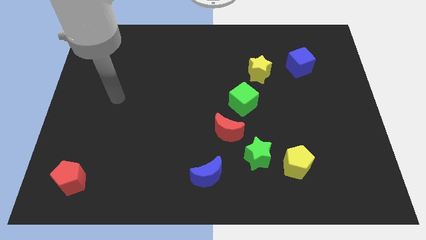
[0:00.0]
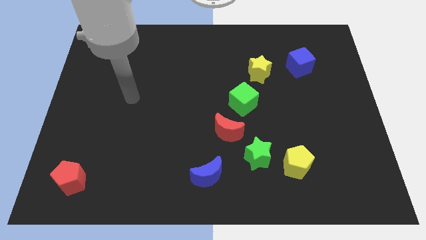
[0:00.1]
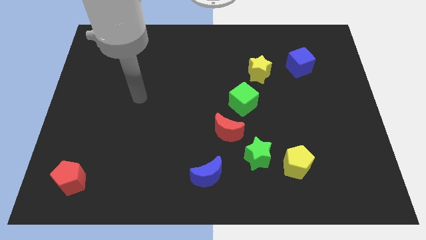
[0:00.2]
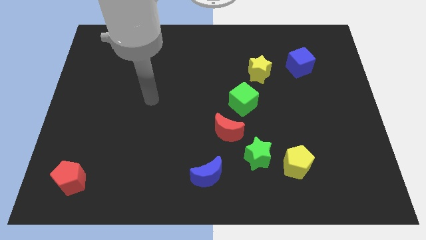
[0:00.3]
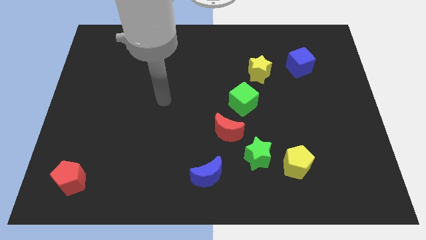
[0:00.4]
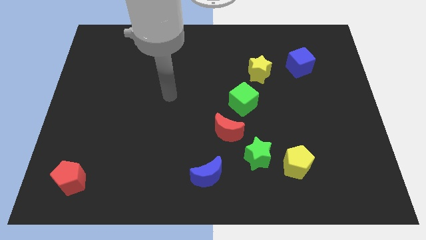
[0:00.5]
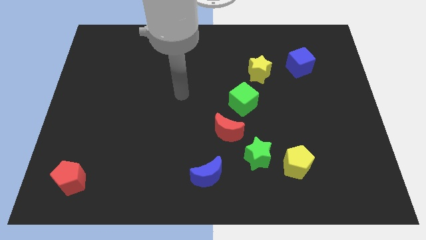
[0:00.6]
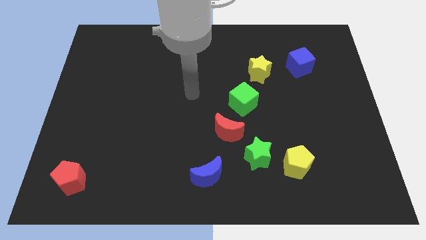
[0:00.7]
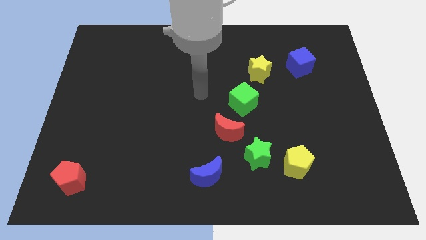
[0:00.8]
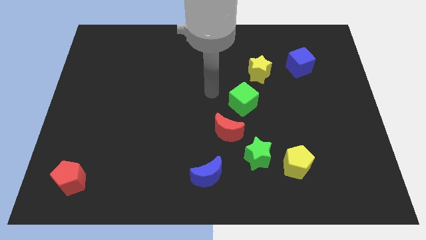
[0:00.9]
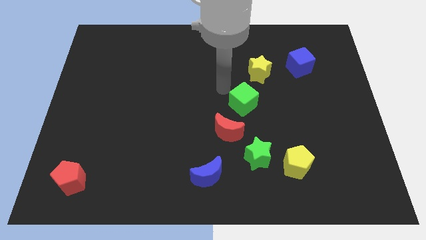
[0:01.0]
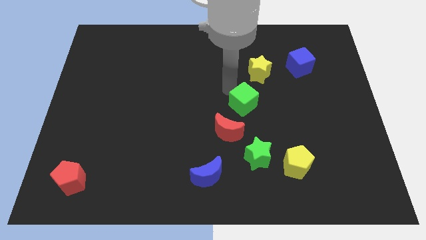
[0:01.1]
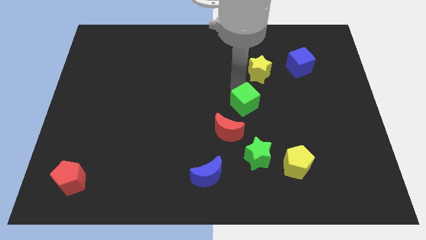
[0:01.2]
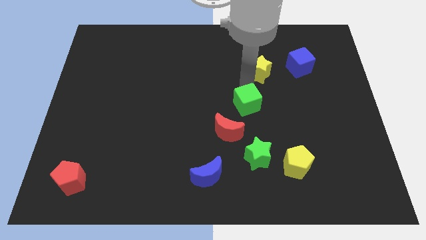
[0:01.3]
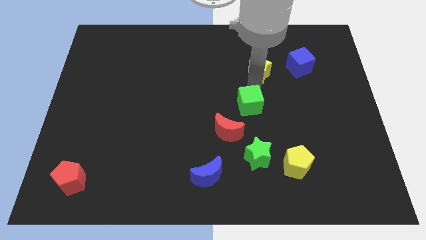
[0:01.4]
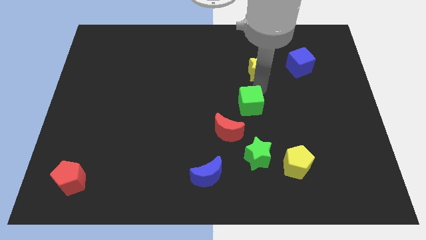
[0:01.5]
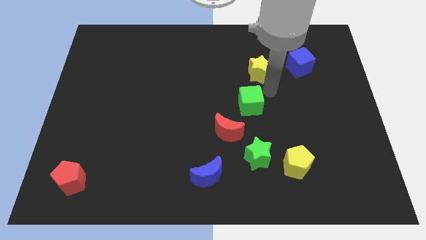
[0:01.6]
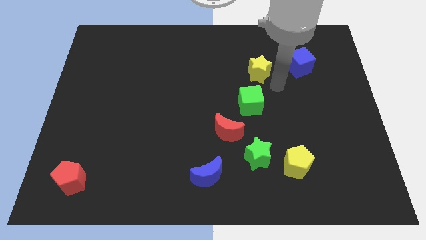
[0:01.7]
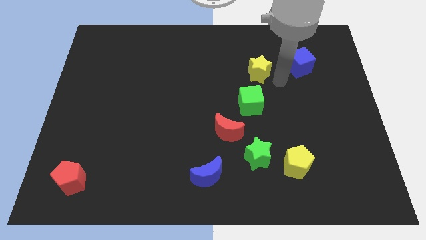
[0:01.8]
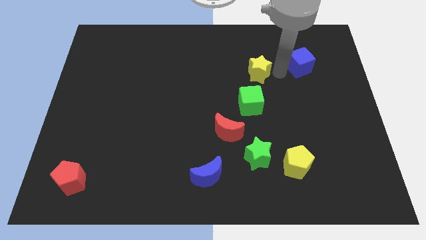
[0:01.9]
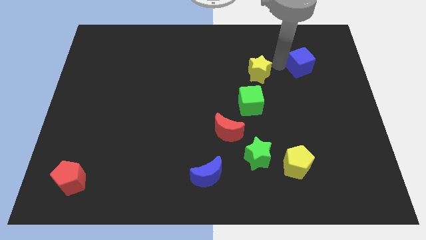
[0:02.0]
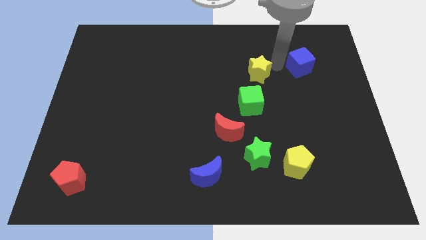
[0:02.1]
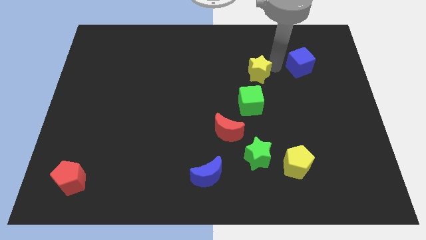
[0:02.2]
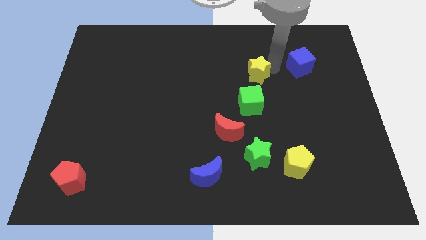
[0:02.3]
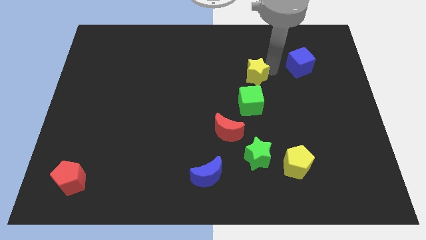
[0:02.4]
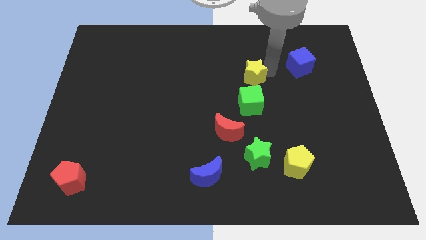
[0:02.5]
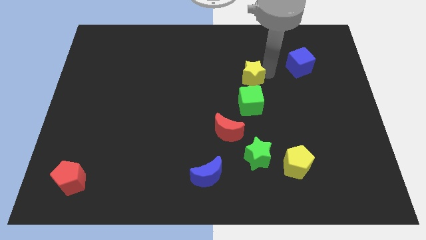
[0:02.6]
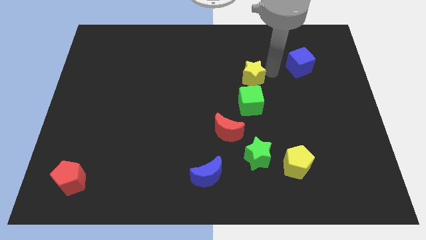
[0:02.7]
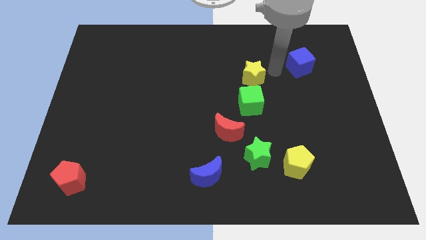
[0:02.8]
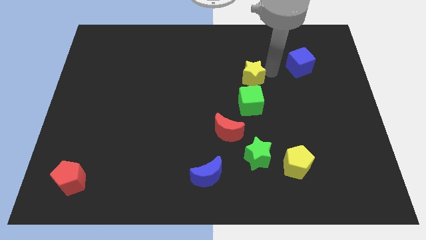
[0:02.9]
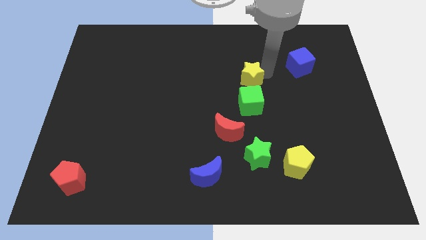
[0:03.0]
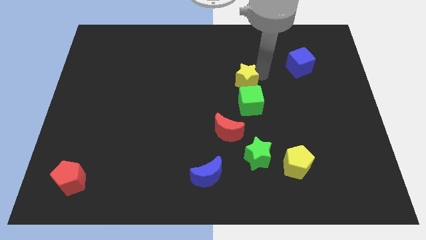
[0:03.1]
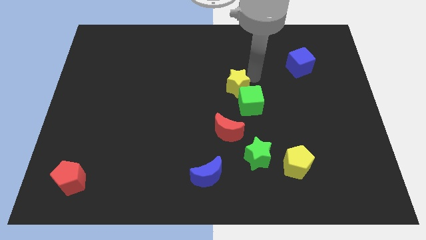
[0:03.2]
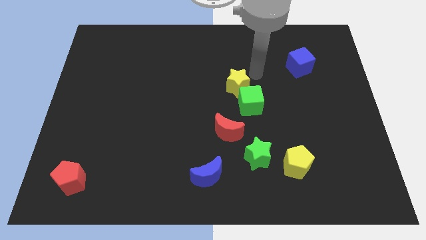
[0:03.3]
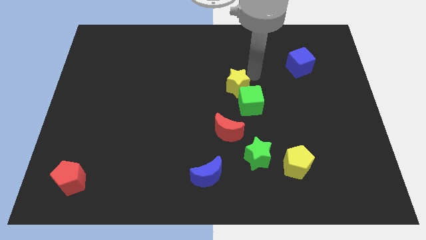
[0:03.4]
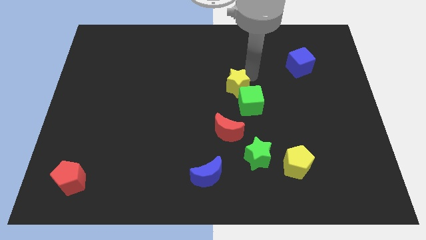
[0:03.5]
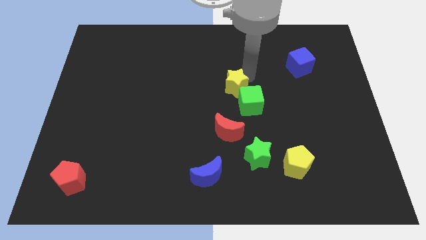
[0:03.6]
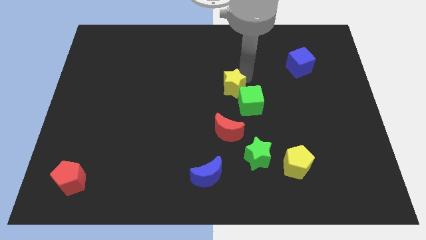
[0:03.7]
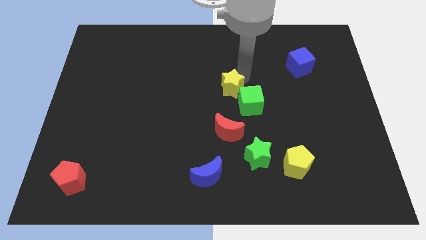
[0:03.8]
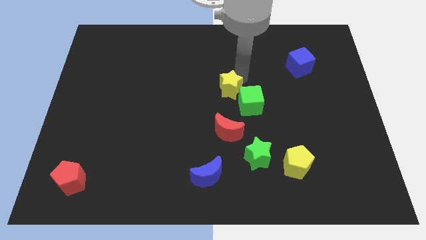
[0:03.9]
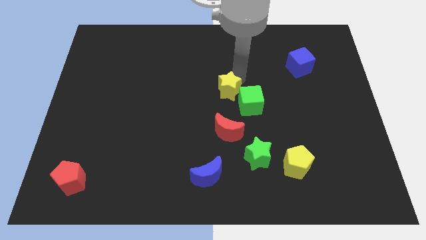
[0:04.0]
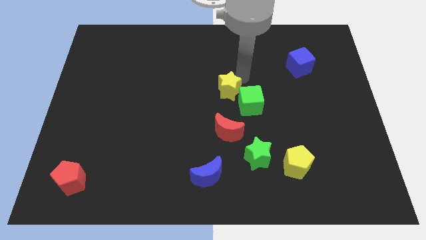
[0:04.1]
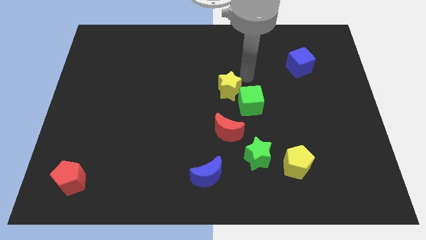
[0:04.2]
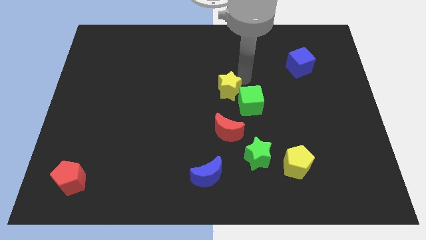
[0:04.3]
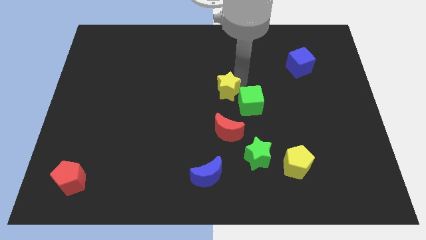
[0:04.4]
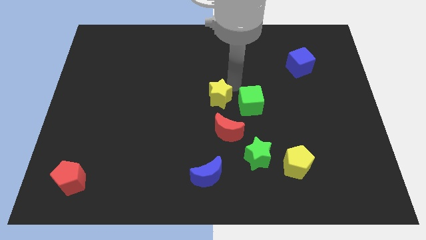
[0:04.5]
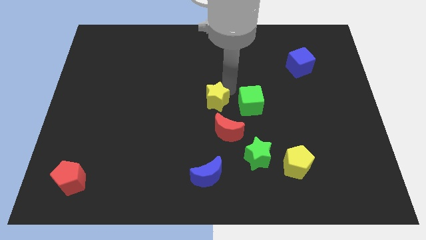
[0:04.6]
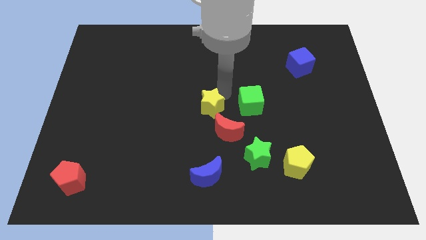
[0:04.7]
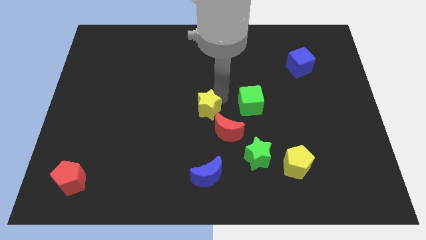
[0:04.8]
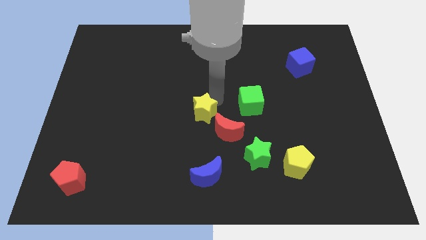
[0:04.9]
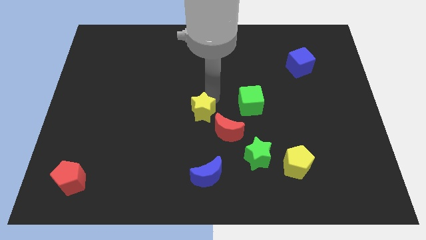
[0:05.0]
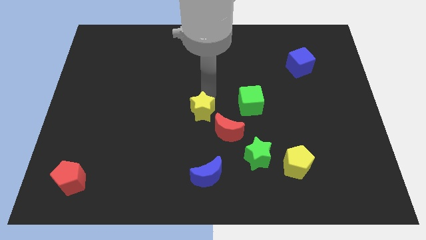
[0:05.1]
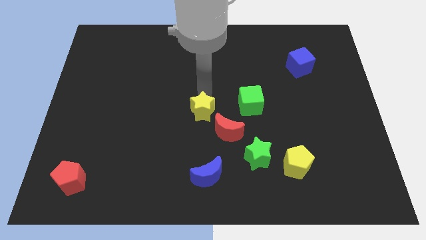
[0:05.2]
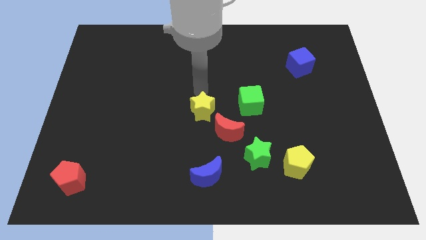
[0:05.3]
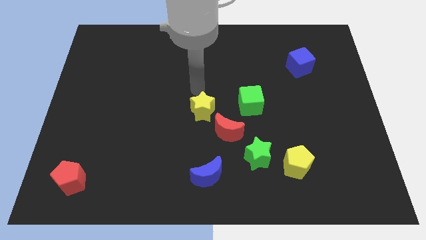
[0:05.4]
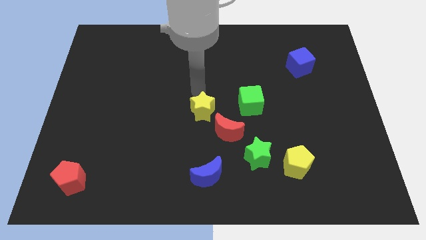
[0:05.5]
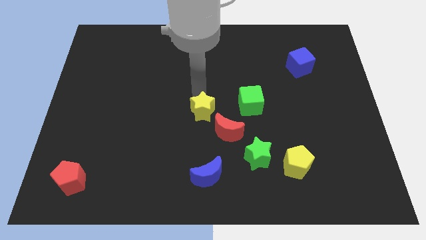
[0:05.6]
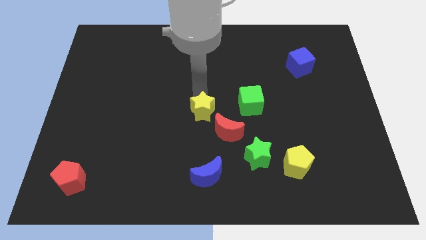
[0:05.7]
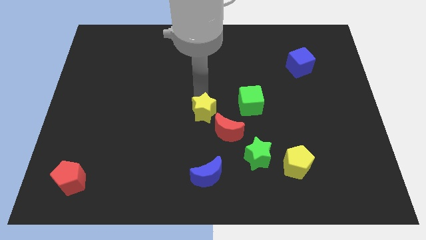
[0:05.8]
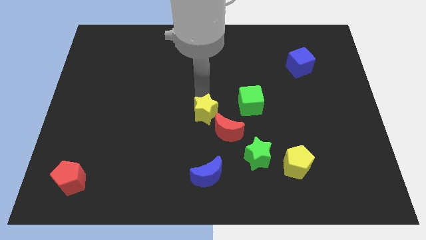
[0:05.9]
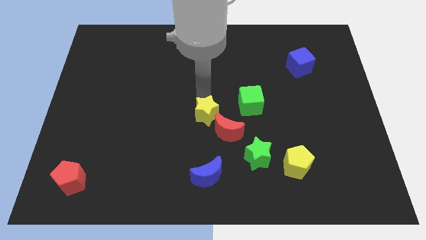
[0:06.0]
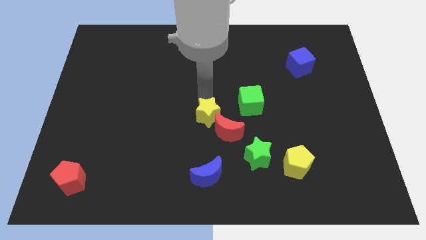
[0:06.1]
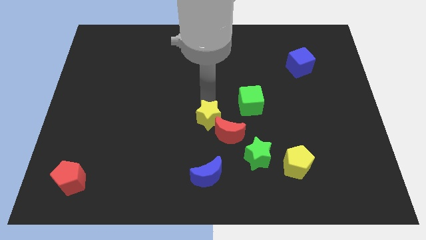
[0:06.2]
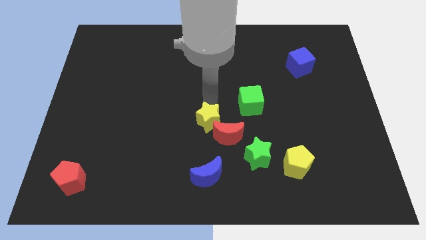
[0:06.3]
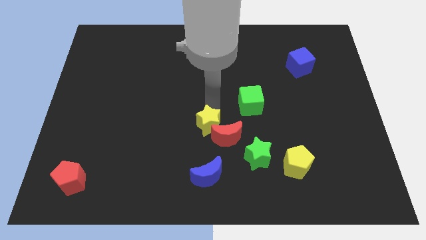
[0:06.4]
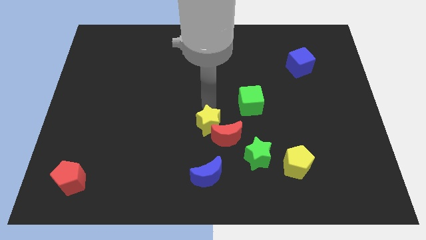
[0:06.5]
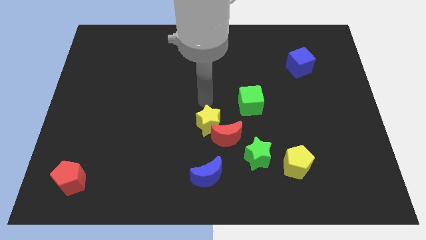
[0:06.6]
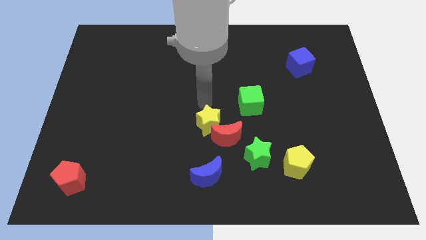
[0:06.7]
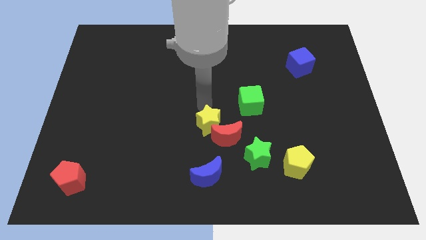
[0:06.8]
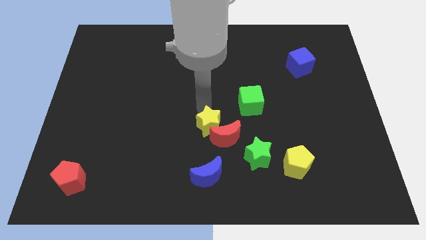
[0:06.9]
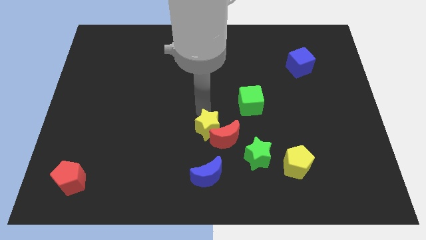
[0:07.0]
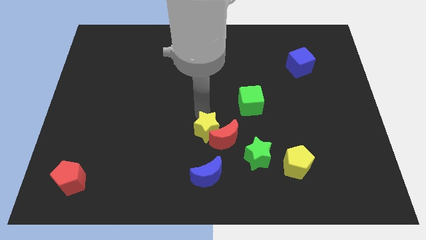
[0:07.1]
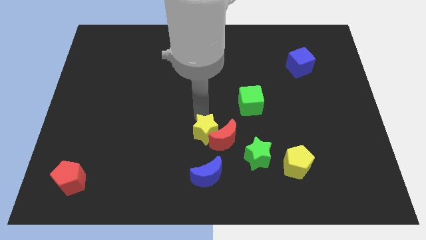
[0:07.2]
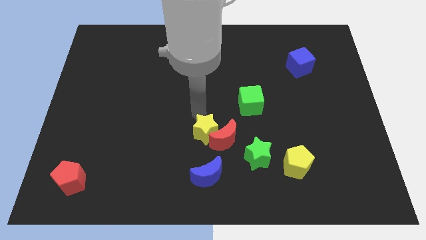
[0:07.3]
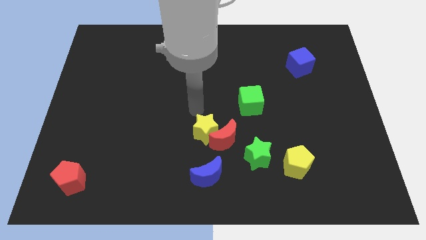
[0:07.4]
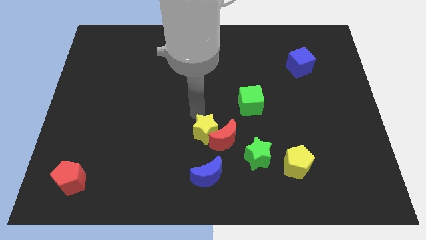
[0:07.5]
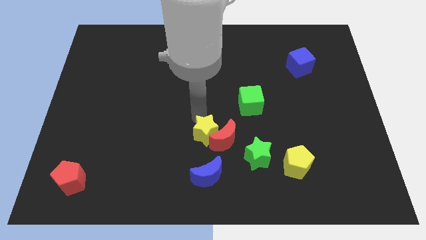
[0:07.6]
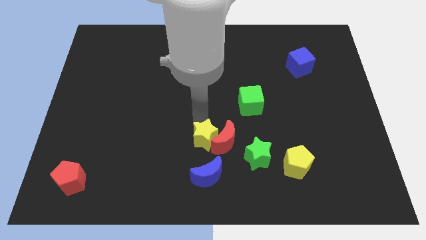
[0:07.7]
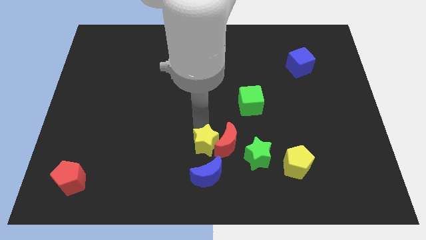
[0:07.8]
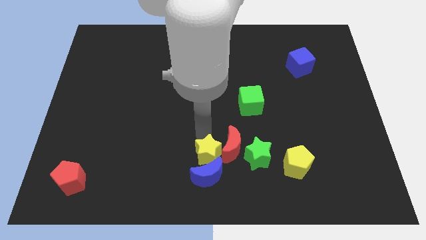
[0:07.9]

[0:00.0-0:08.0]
put the yellow star to the blue moon
